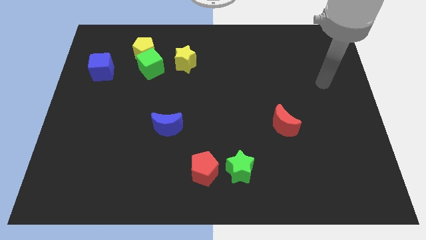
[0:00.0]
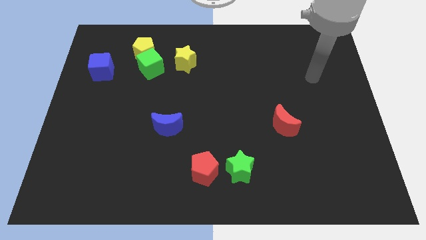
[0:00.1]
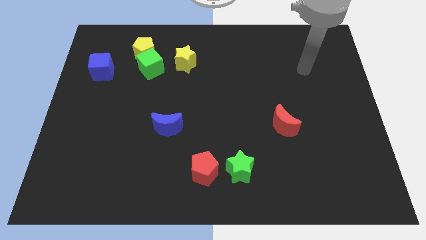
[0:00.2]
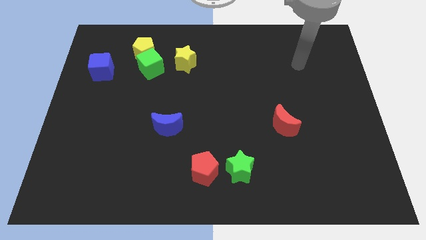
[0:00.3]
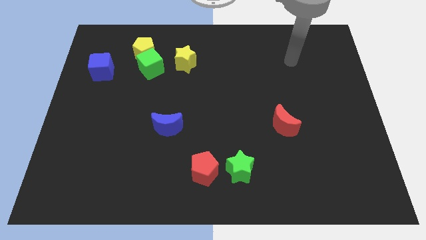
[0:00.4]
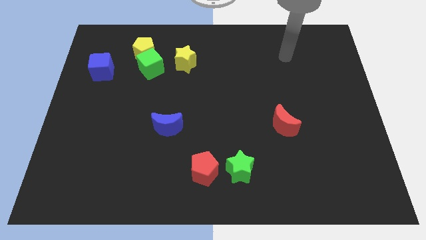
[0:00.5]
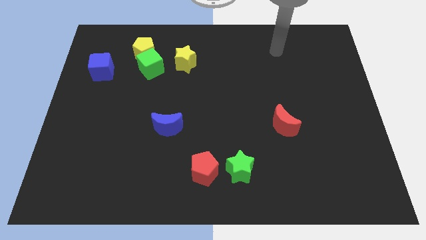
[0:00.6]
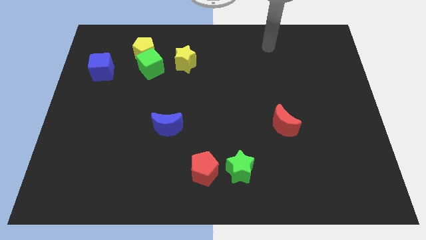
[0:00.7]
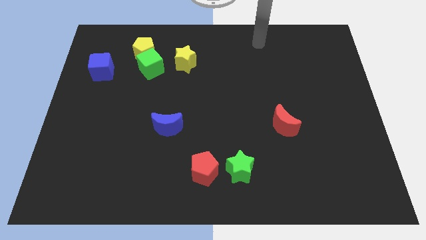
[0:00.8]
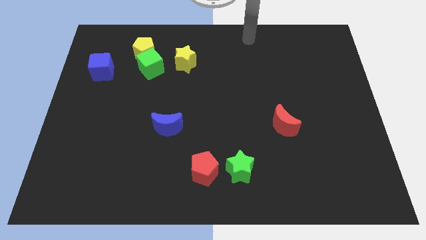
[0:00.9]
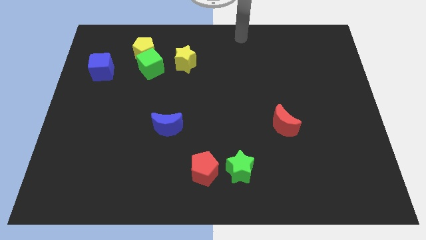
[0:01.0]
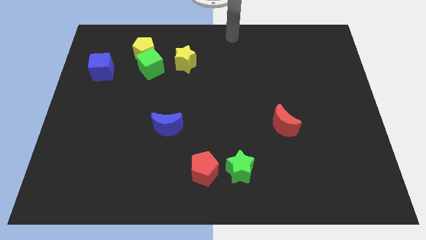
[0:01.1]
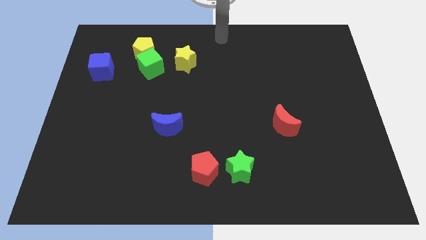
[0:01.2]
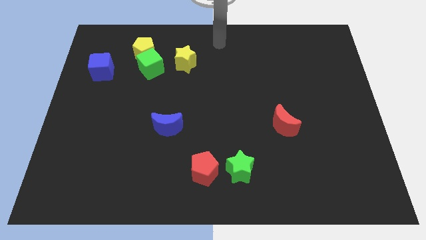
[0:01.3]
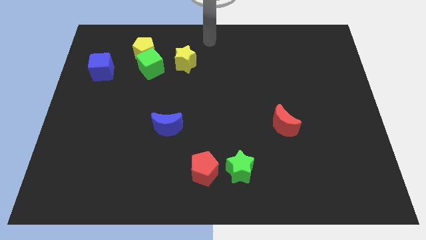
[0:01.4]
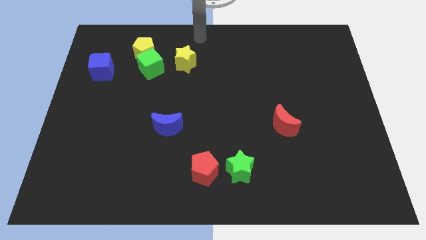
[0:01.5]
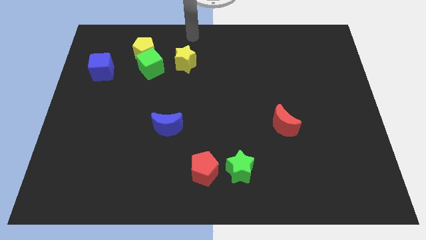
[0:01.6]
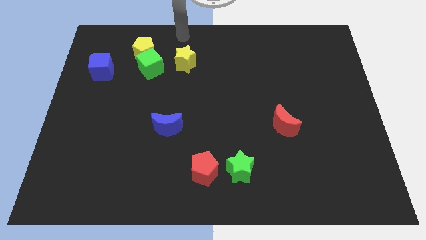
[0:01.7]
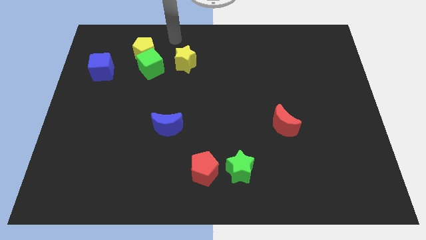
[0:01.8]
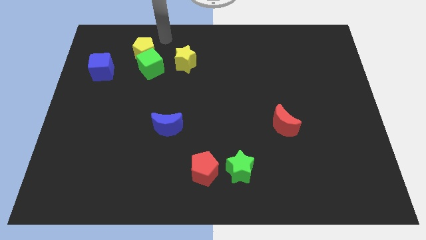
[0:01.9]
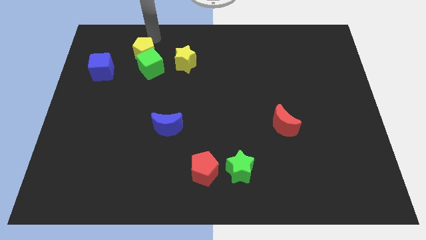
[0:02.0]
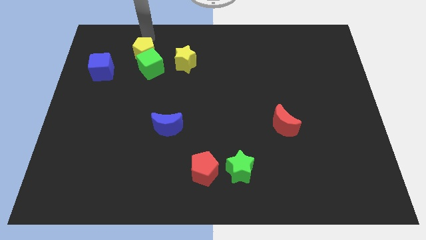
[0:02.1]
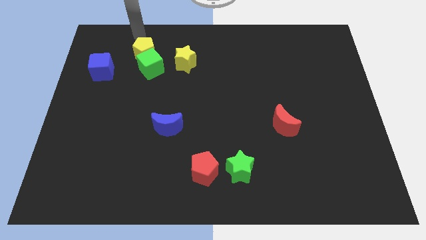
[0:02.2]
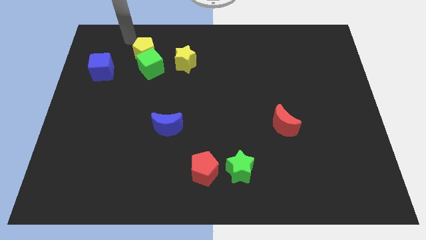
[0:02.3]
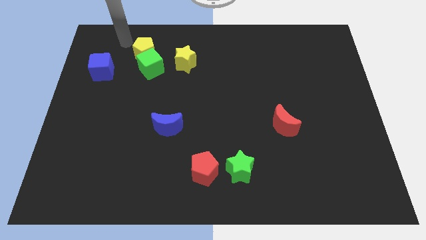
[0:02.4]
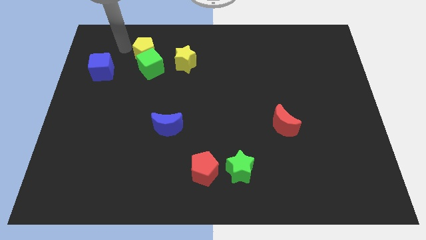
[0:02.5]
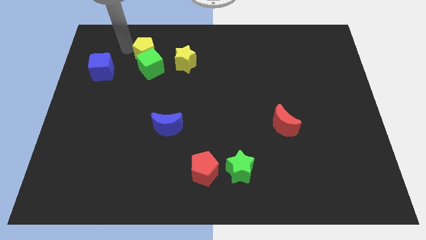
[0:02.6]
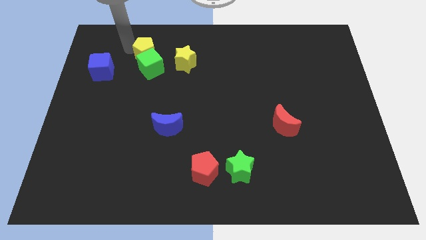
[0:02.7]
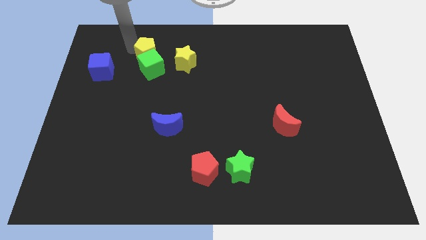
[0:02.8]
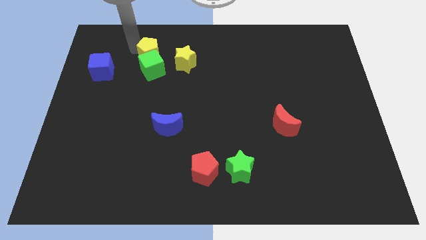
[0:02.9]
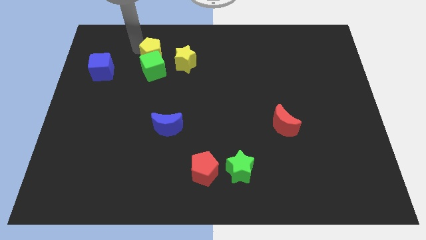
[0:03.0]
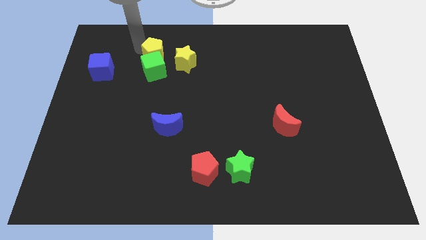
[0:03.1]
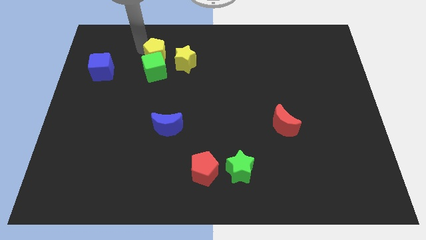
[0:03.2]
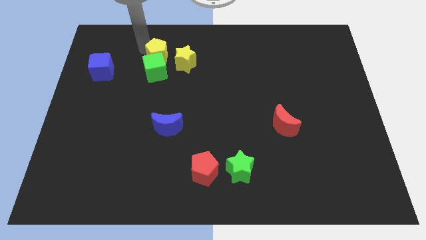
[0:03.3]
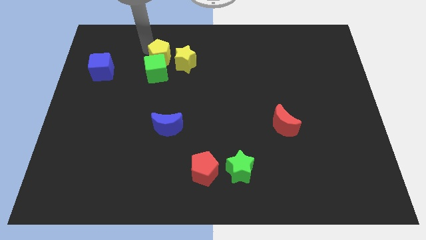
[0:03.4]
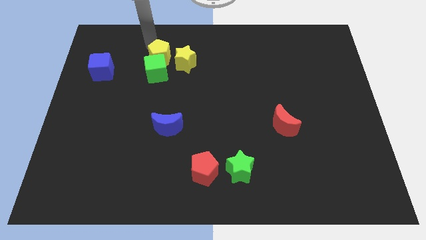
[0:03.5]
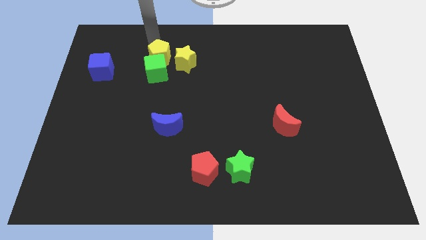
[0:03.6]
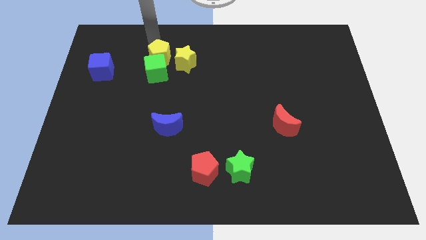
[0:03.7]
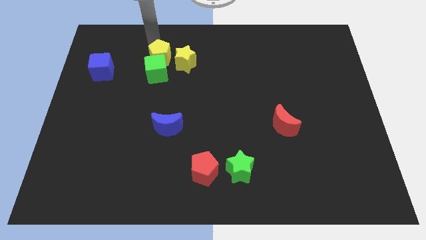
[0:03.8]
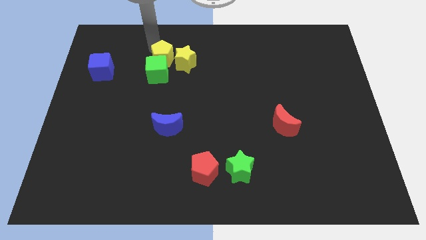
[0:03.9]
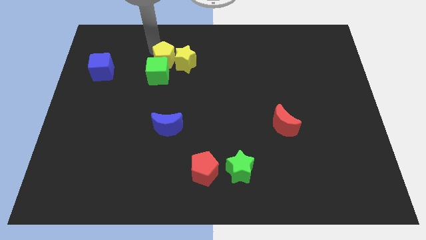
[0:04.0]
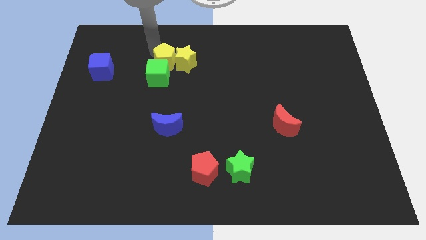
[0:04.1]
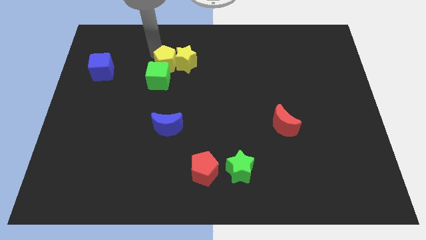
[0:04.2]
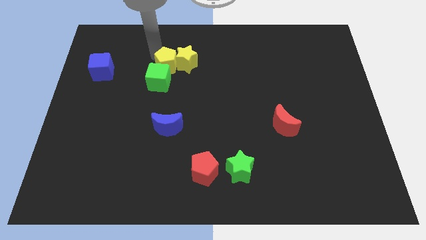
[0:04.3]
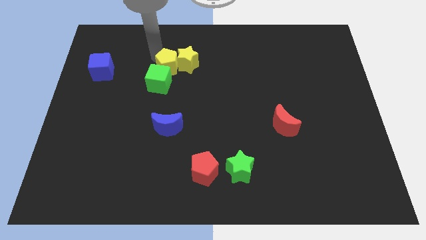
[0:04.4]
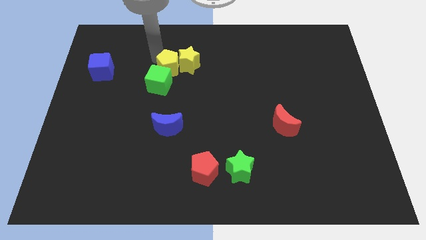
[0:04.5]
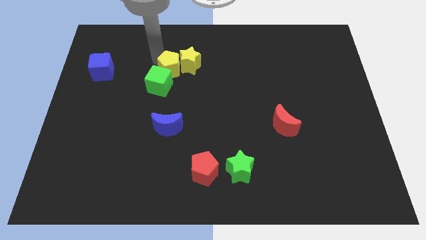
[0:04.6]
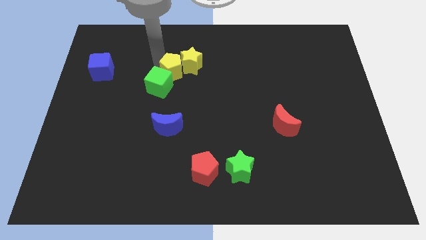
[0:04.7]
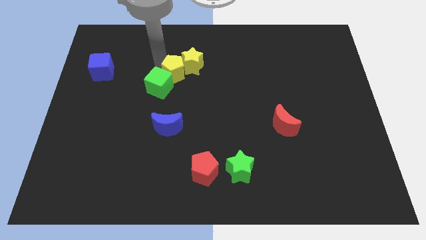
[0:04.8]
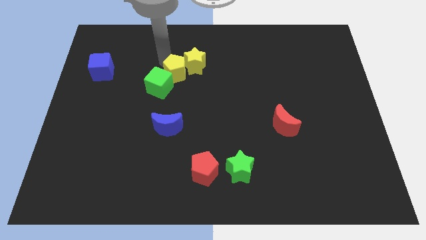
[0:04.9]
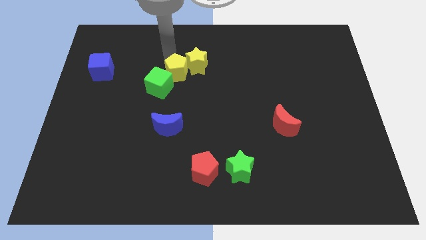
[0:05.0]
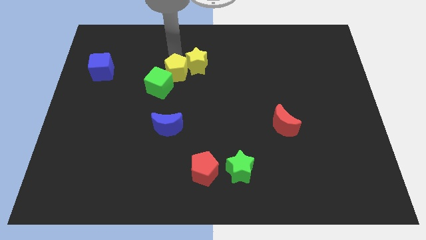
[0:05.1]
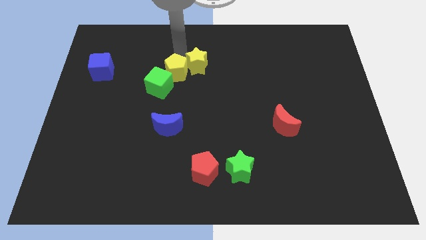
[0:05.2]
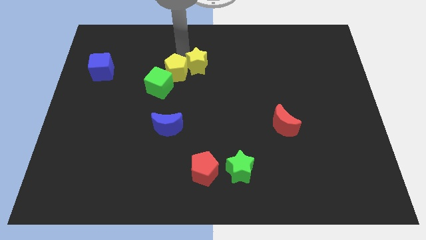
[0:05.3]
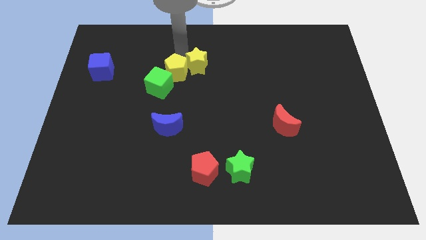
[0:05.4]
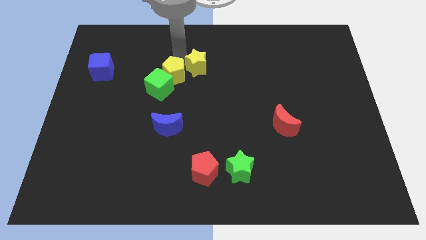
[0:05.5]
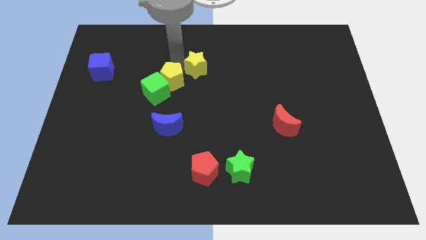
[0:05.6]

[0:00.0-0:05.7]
push the yellow pentagon above the blue moon

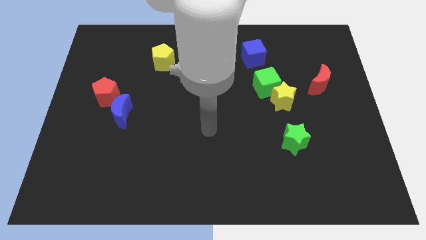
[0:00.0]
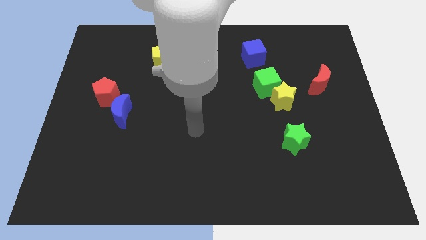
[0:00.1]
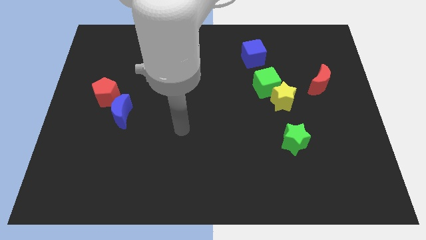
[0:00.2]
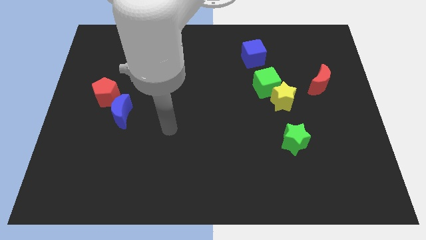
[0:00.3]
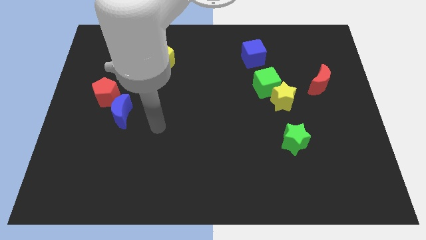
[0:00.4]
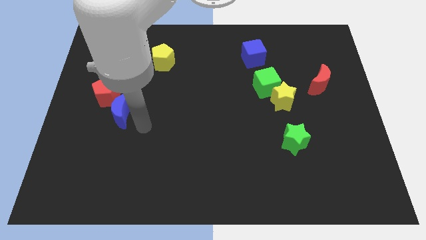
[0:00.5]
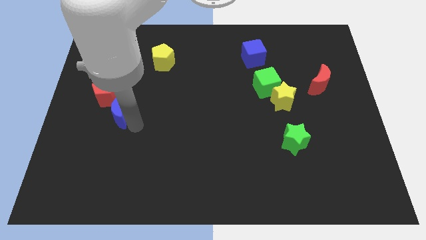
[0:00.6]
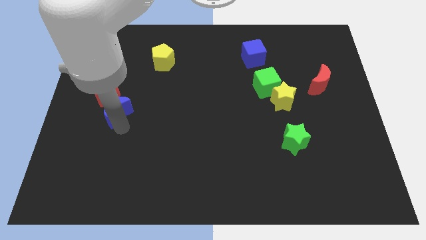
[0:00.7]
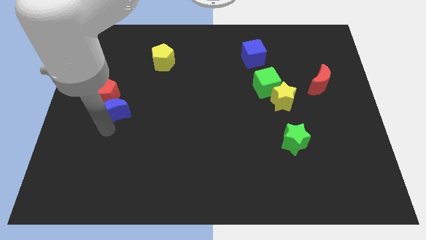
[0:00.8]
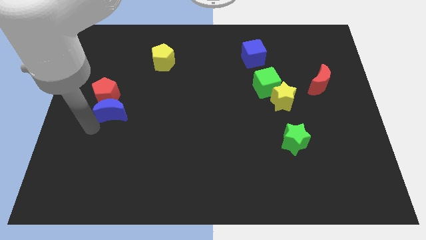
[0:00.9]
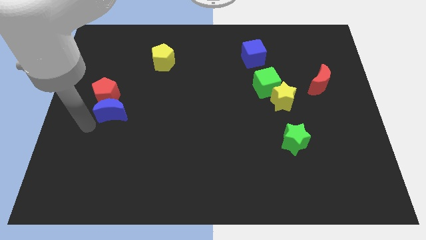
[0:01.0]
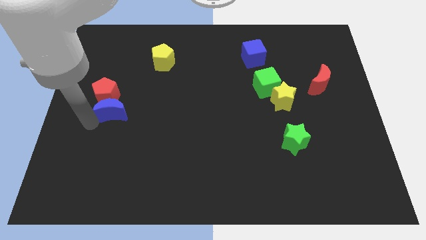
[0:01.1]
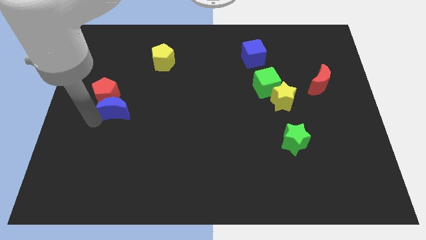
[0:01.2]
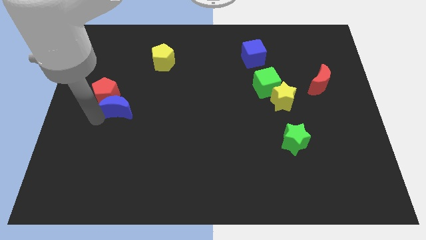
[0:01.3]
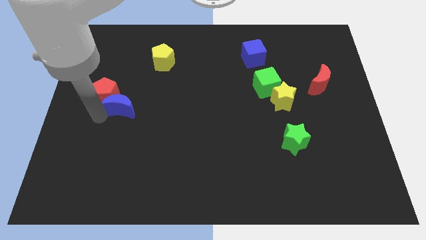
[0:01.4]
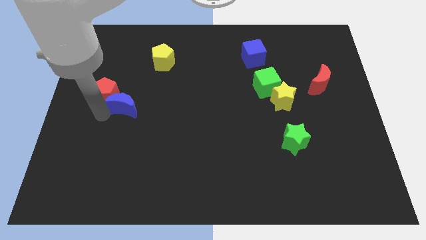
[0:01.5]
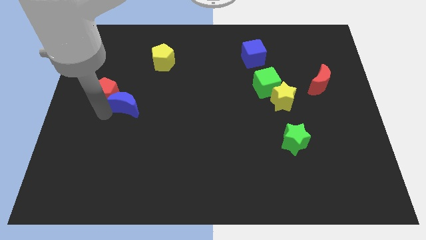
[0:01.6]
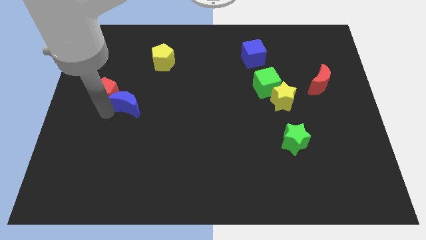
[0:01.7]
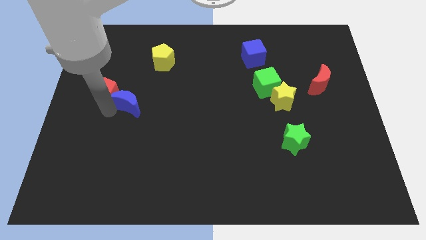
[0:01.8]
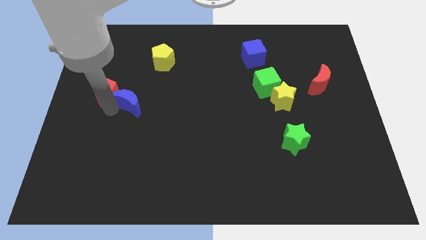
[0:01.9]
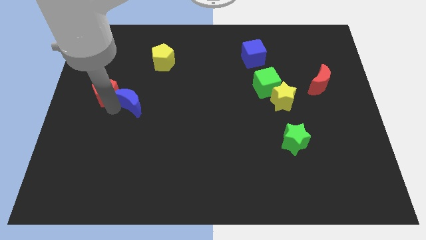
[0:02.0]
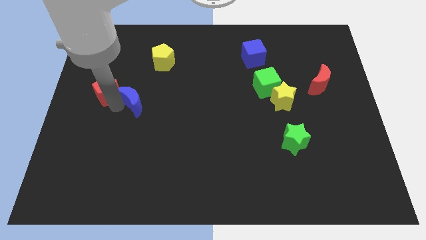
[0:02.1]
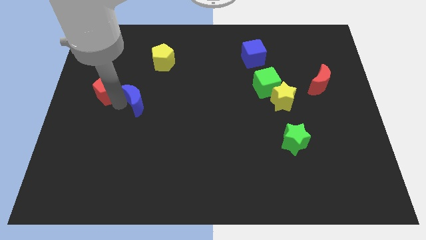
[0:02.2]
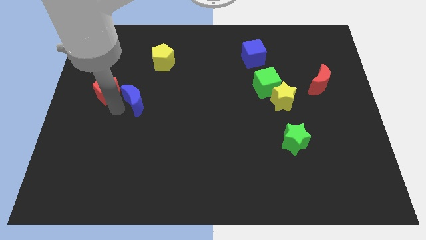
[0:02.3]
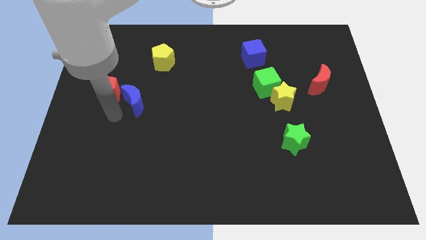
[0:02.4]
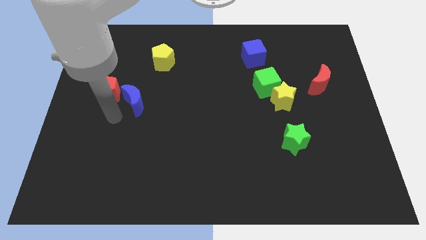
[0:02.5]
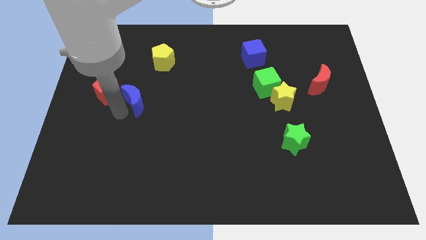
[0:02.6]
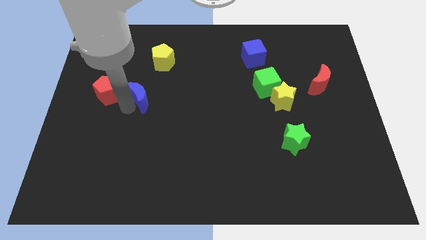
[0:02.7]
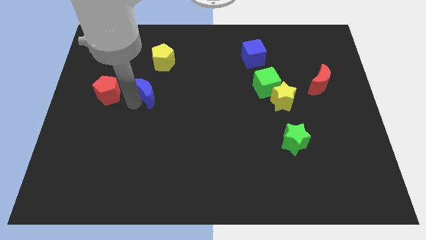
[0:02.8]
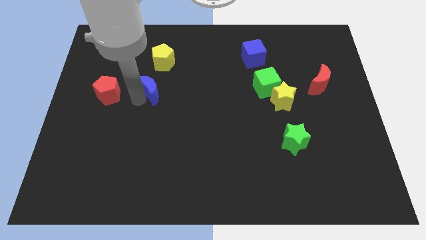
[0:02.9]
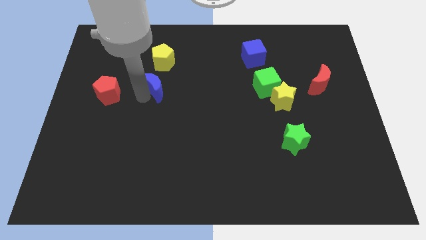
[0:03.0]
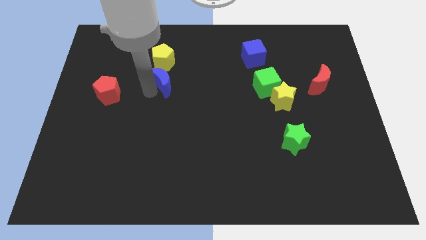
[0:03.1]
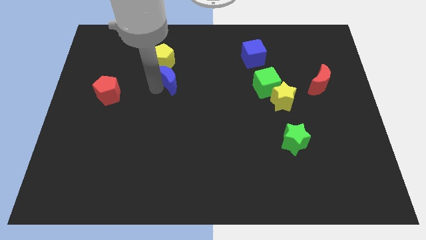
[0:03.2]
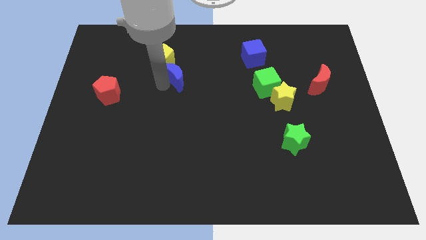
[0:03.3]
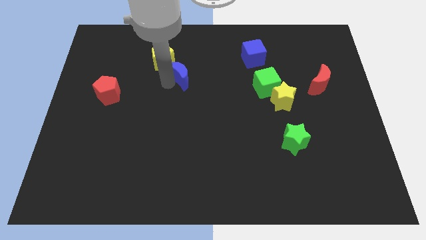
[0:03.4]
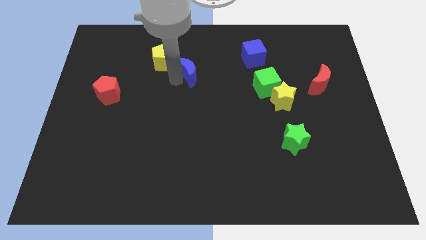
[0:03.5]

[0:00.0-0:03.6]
put the blue moon to the right of the yellow pentagon
